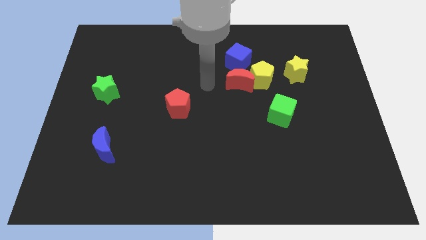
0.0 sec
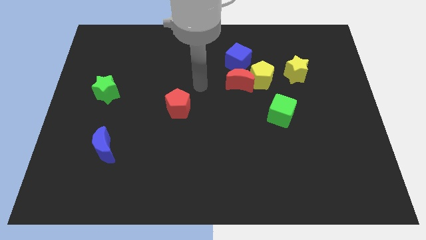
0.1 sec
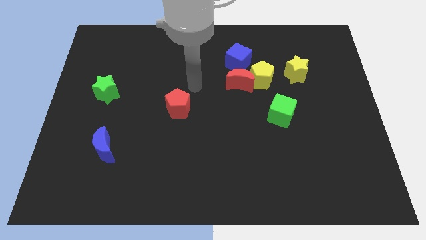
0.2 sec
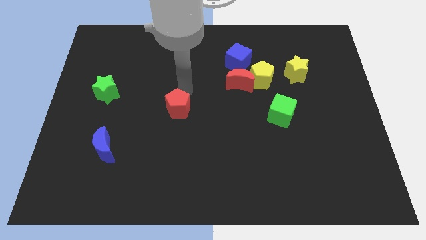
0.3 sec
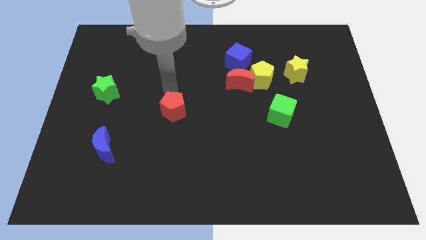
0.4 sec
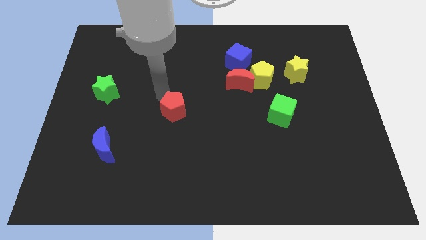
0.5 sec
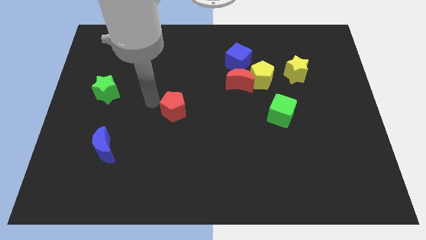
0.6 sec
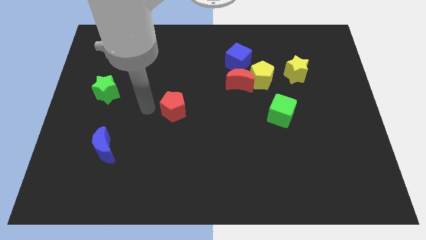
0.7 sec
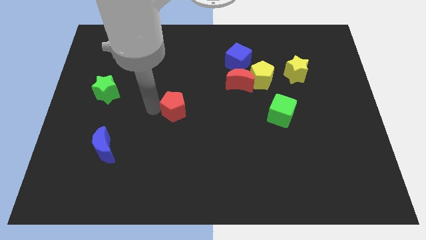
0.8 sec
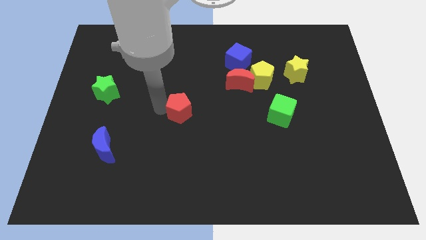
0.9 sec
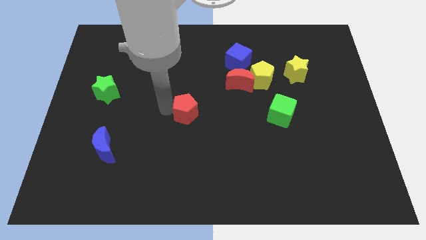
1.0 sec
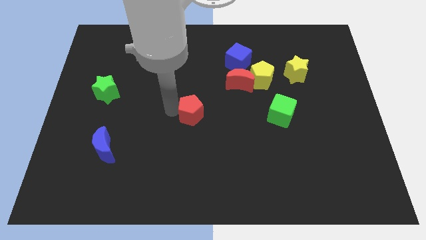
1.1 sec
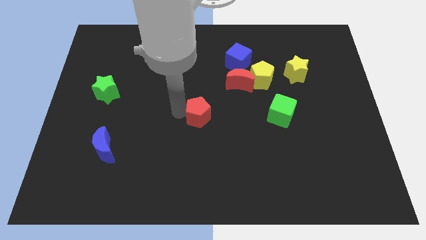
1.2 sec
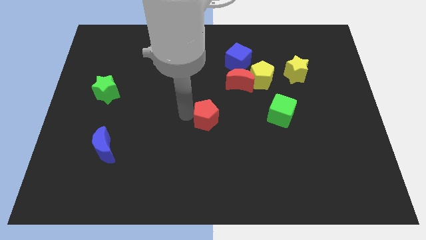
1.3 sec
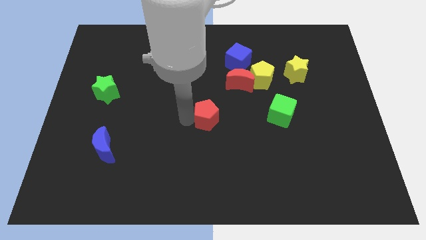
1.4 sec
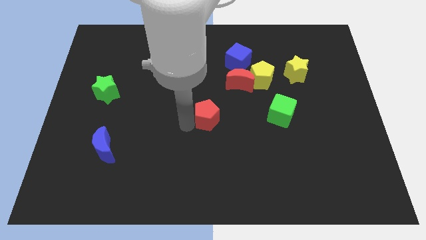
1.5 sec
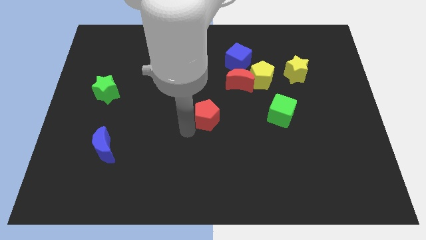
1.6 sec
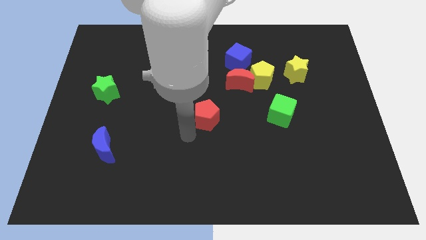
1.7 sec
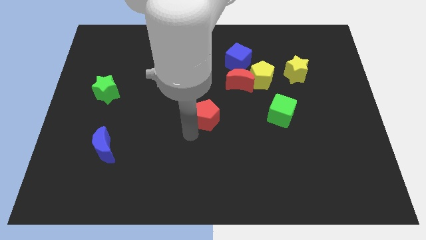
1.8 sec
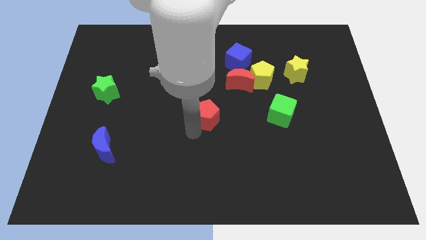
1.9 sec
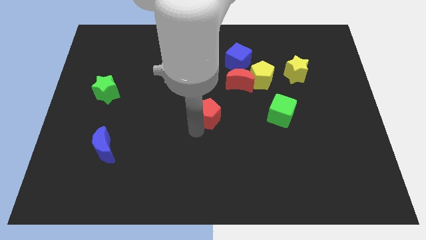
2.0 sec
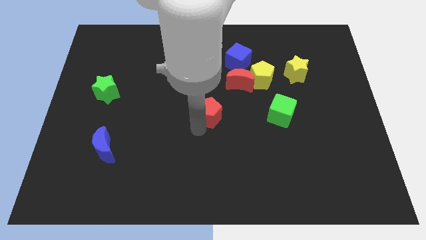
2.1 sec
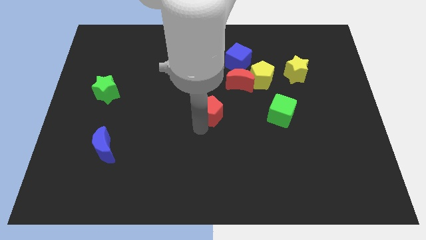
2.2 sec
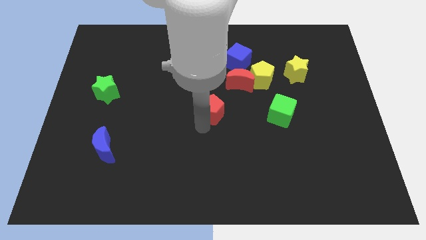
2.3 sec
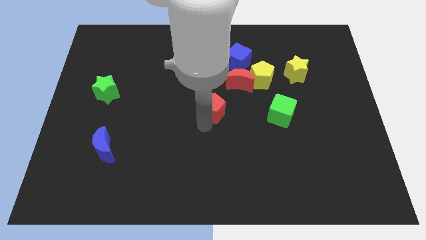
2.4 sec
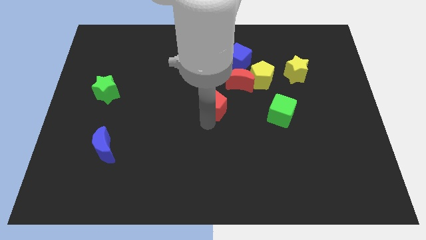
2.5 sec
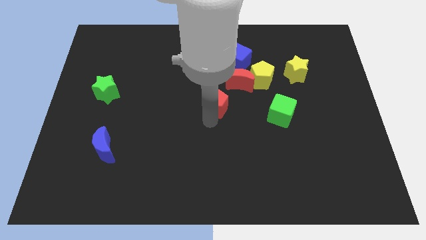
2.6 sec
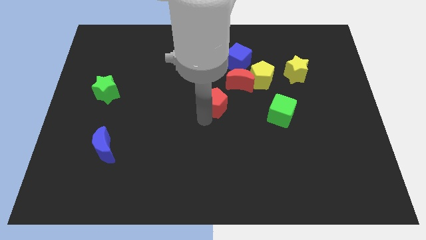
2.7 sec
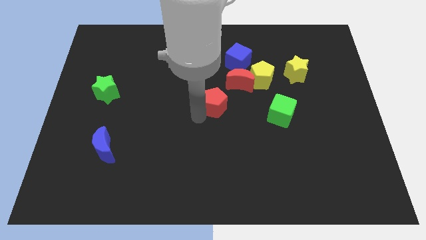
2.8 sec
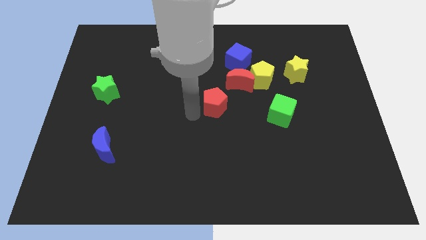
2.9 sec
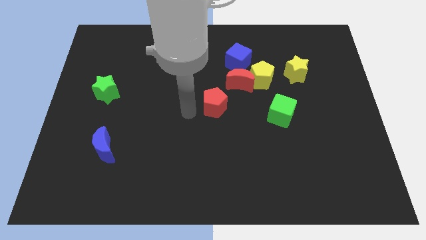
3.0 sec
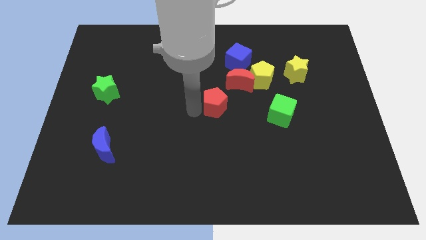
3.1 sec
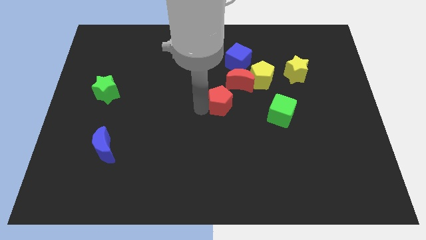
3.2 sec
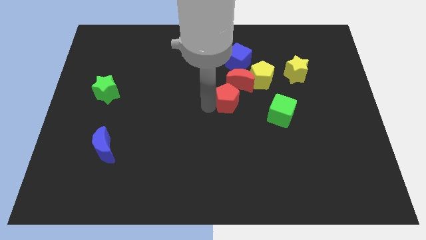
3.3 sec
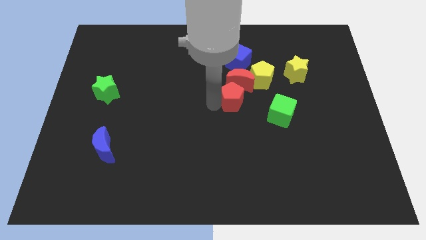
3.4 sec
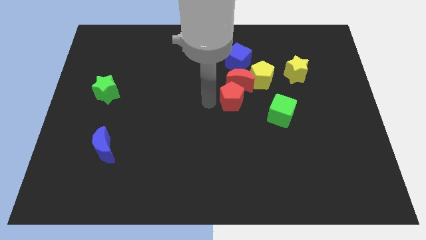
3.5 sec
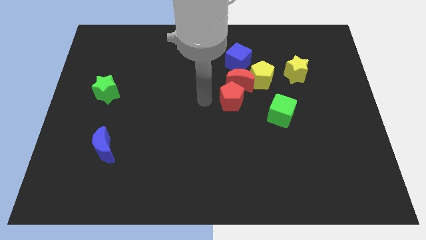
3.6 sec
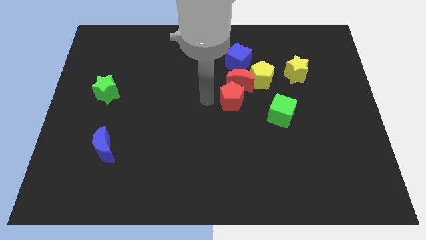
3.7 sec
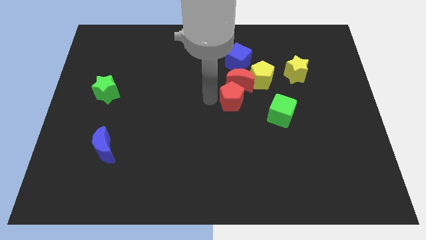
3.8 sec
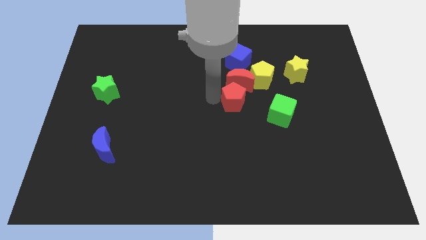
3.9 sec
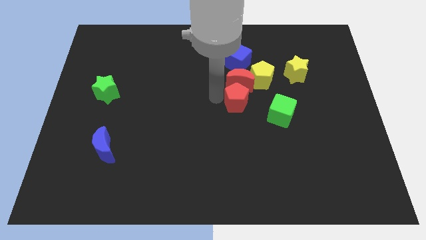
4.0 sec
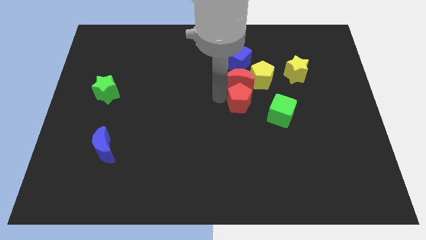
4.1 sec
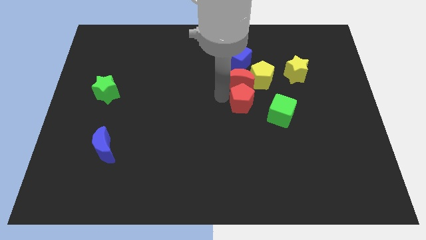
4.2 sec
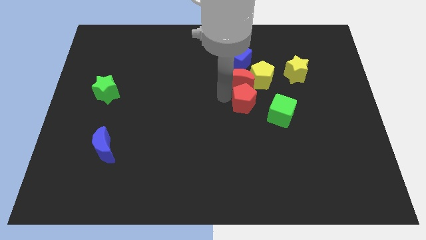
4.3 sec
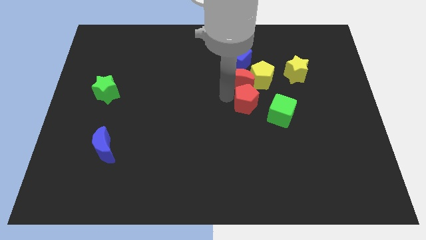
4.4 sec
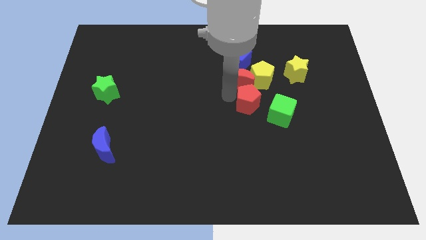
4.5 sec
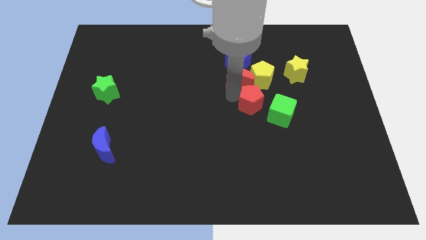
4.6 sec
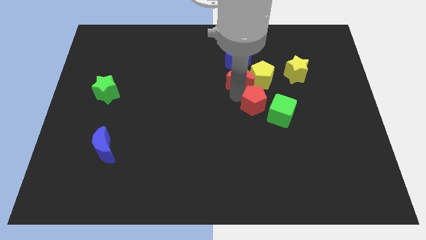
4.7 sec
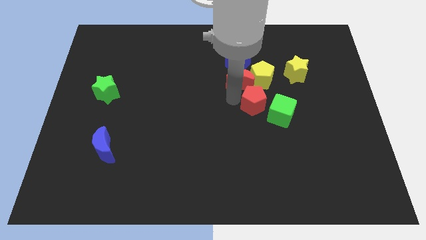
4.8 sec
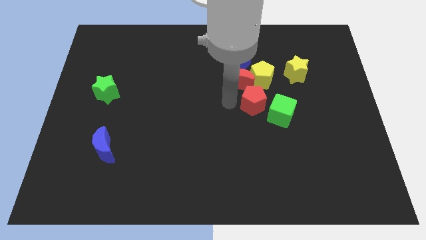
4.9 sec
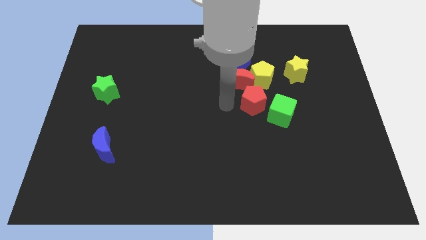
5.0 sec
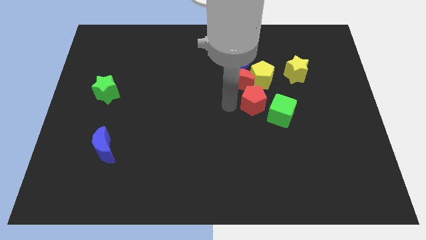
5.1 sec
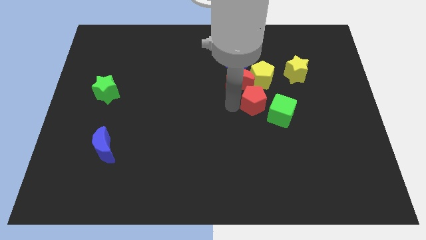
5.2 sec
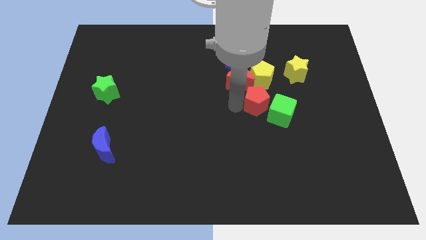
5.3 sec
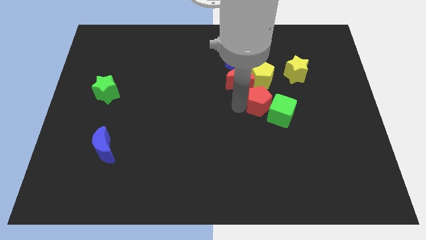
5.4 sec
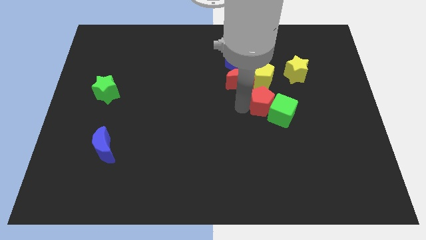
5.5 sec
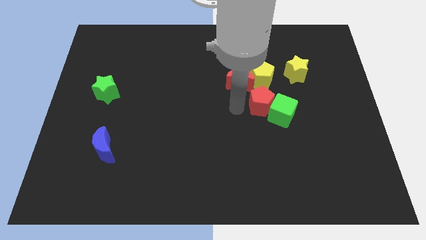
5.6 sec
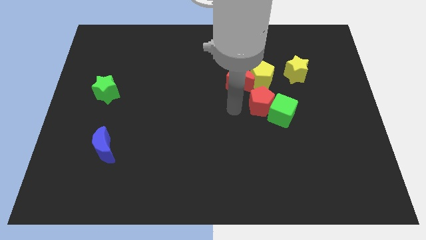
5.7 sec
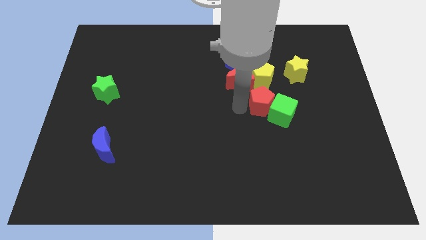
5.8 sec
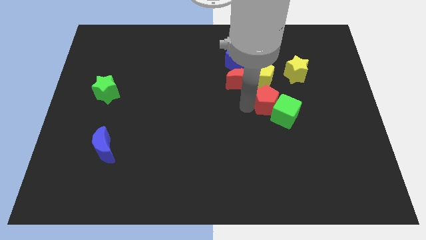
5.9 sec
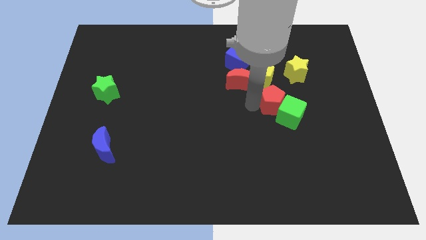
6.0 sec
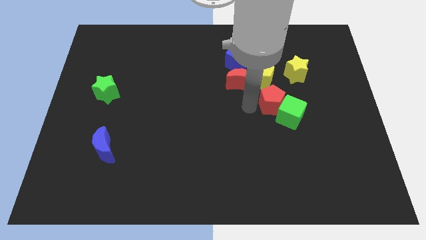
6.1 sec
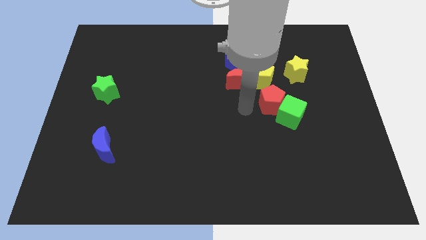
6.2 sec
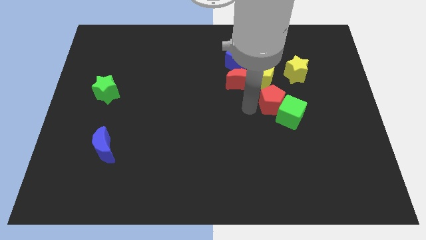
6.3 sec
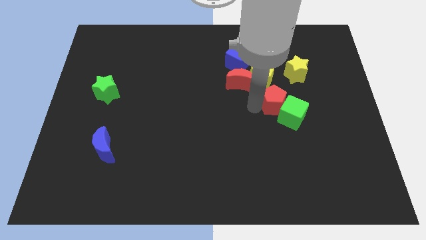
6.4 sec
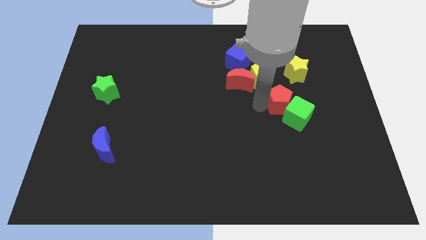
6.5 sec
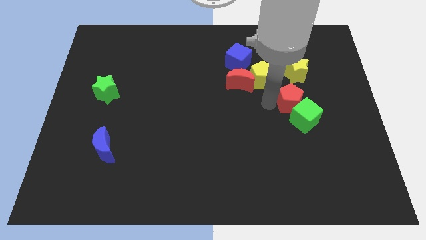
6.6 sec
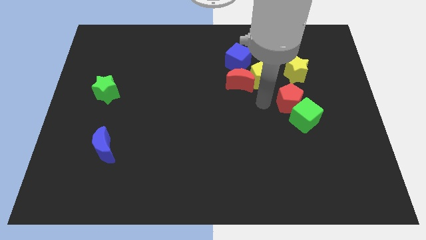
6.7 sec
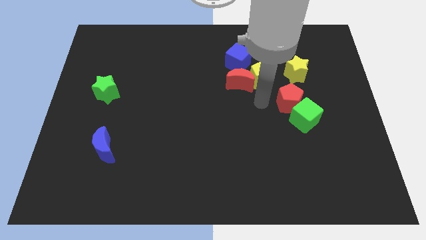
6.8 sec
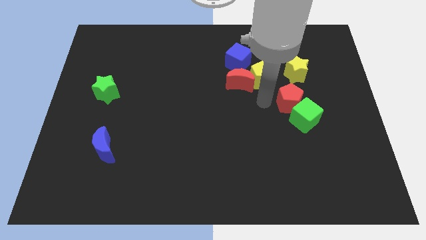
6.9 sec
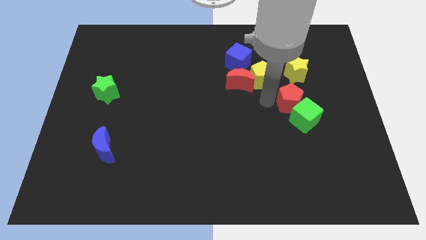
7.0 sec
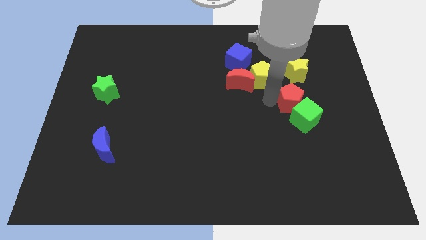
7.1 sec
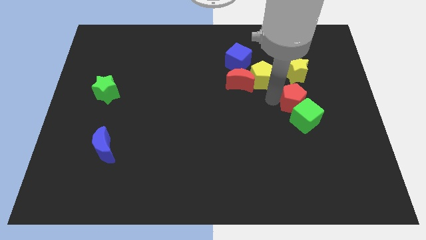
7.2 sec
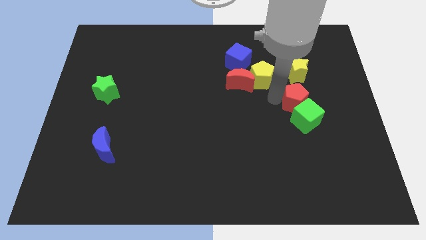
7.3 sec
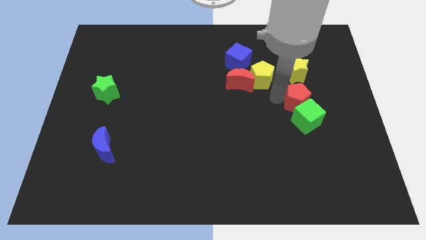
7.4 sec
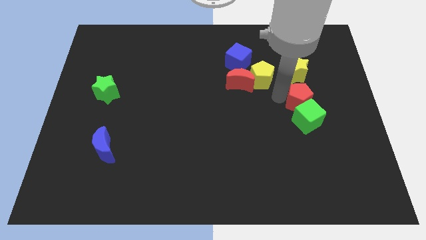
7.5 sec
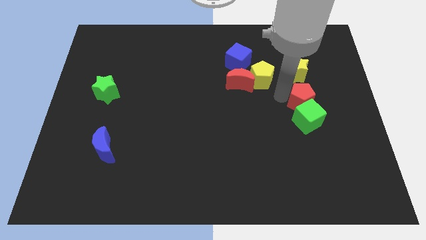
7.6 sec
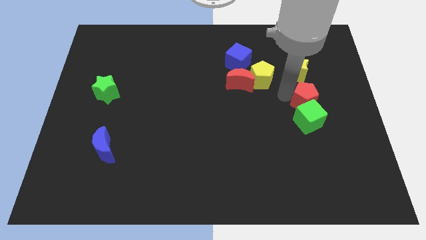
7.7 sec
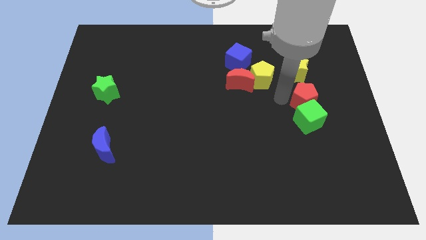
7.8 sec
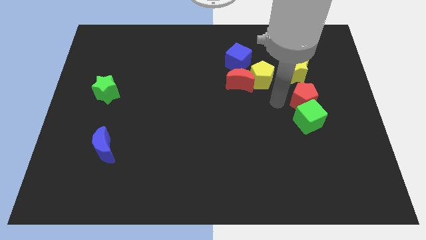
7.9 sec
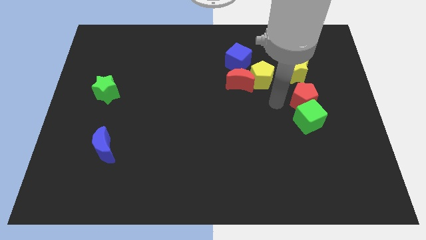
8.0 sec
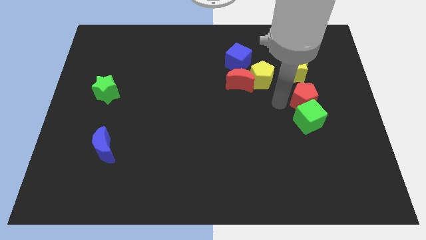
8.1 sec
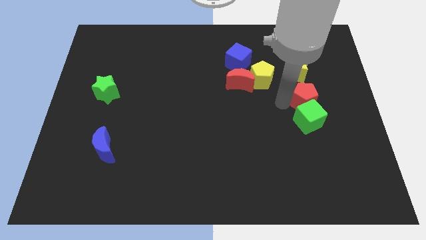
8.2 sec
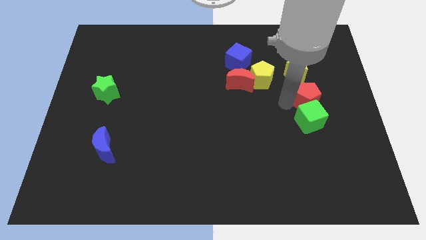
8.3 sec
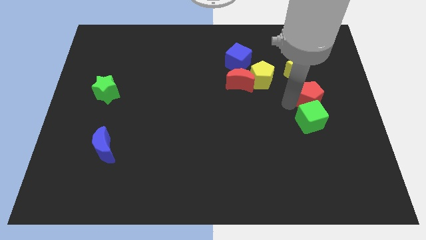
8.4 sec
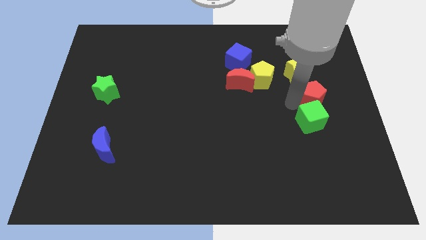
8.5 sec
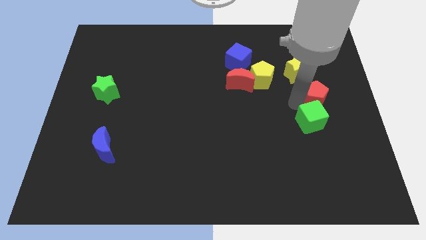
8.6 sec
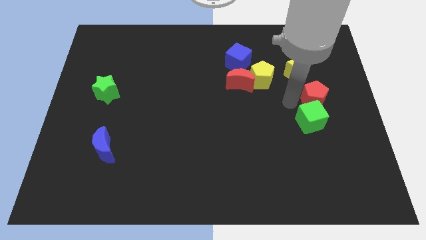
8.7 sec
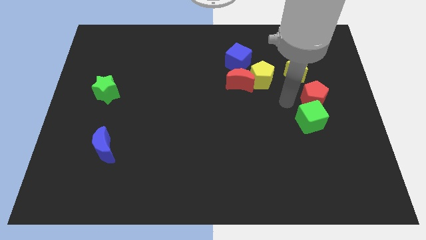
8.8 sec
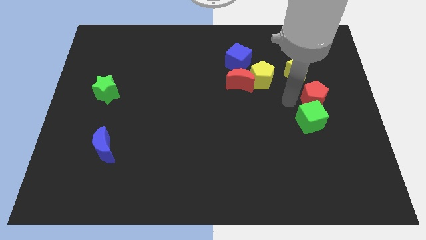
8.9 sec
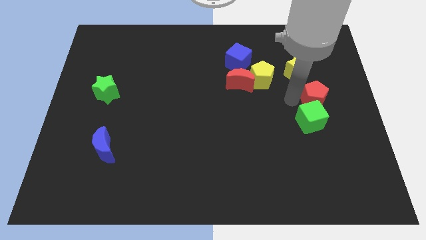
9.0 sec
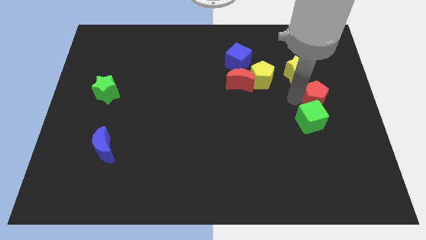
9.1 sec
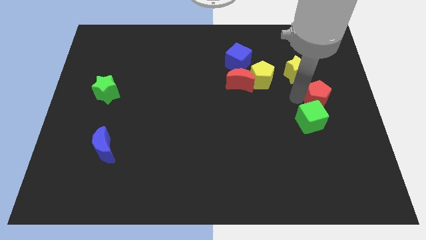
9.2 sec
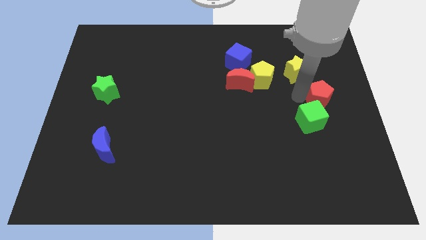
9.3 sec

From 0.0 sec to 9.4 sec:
move the red pentagon to the center right
